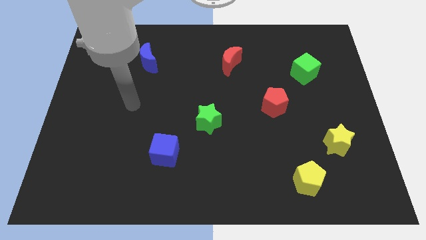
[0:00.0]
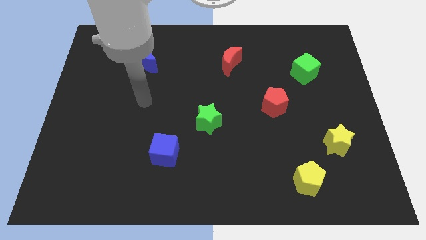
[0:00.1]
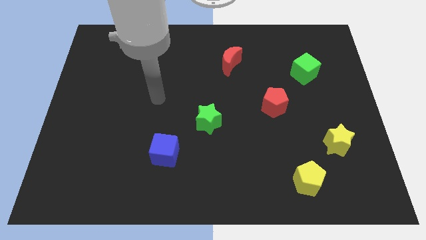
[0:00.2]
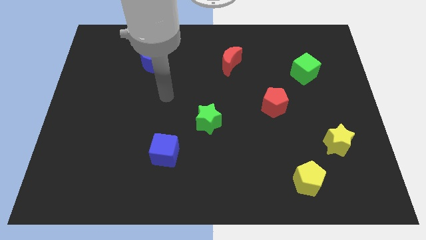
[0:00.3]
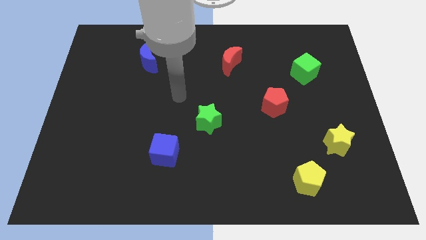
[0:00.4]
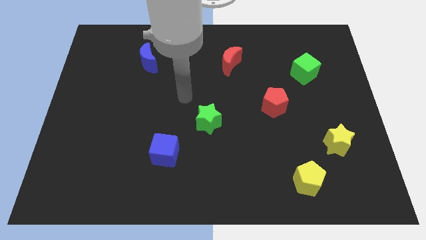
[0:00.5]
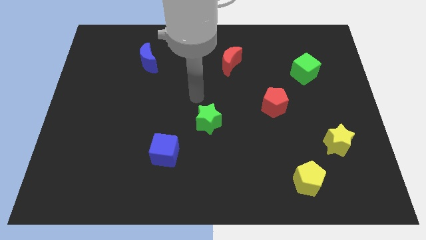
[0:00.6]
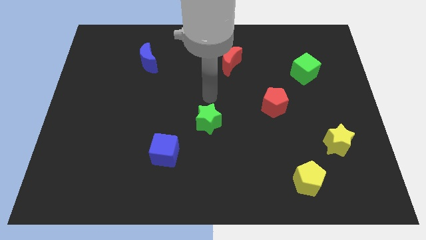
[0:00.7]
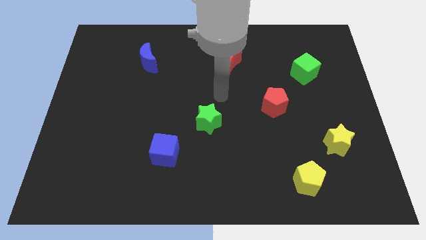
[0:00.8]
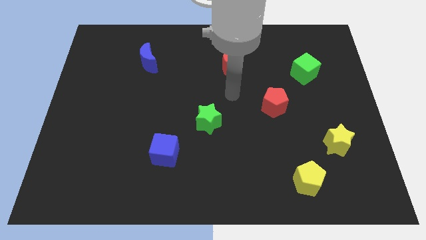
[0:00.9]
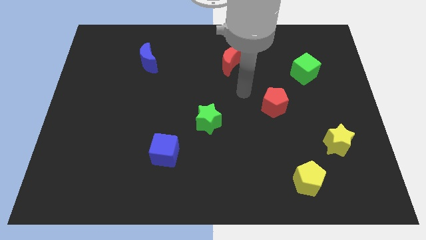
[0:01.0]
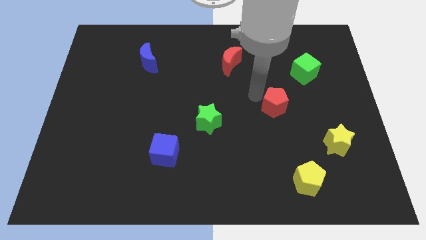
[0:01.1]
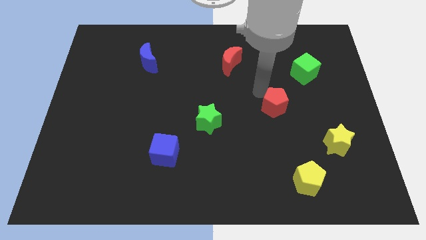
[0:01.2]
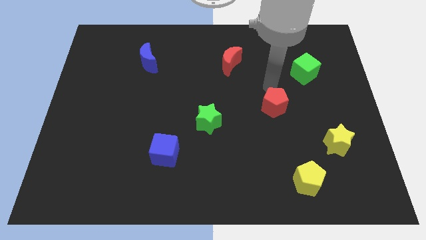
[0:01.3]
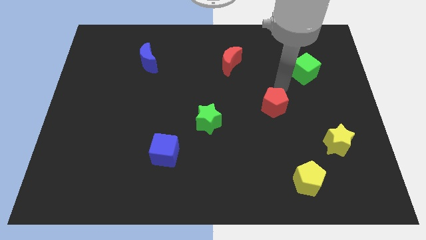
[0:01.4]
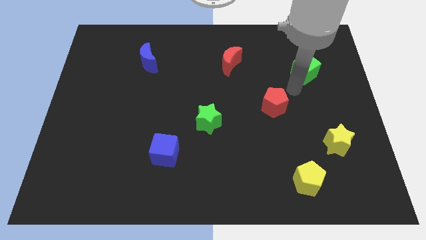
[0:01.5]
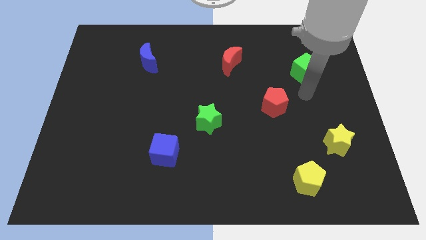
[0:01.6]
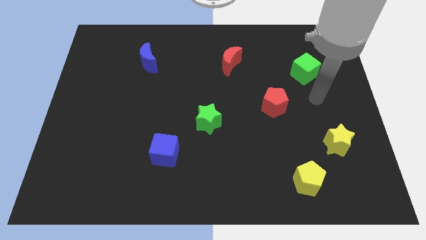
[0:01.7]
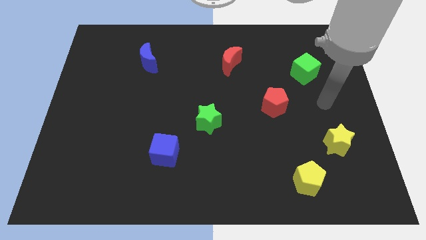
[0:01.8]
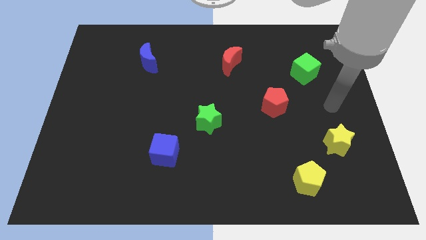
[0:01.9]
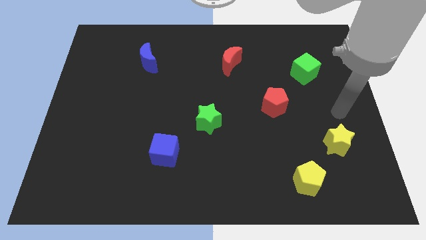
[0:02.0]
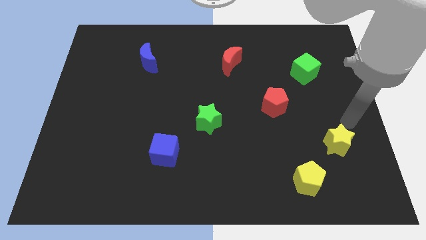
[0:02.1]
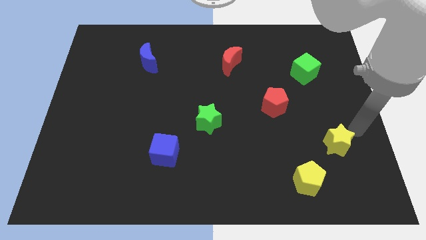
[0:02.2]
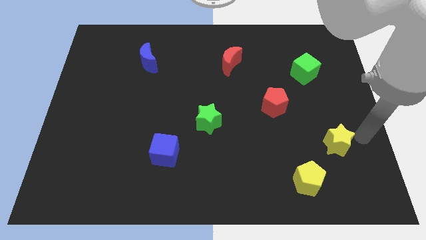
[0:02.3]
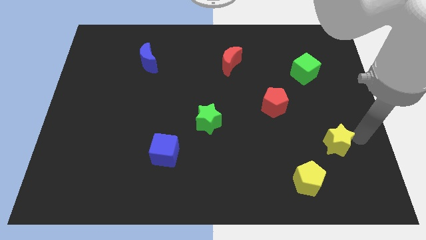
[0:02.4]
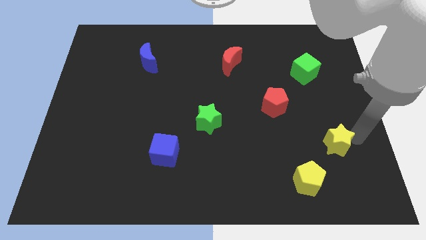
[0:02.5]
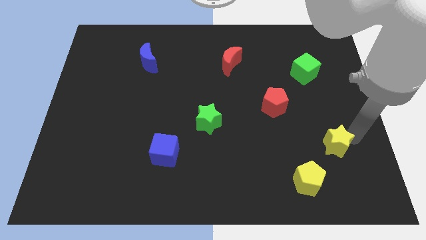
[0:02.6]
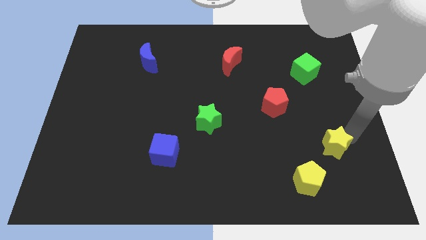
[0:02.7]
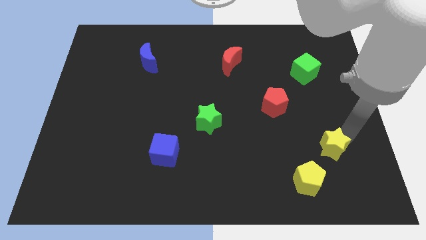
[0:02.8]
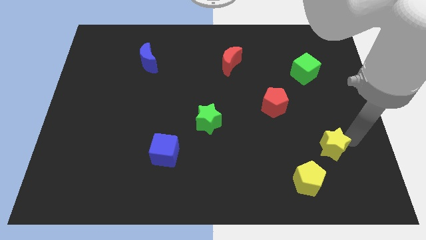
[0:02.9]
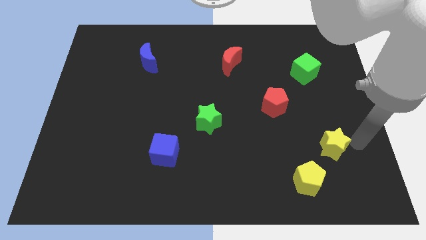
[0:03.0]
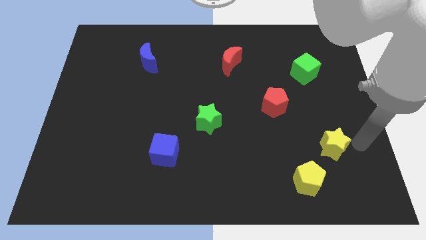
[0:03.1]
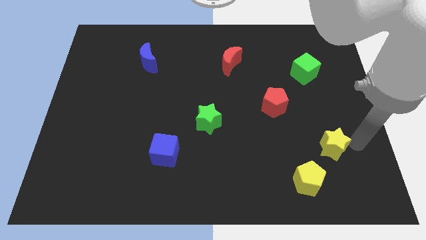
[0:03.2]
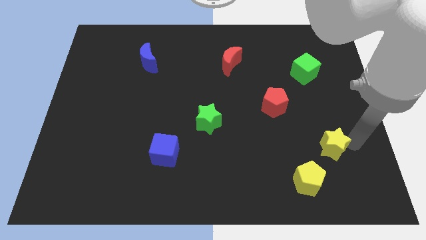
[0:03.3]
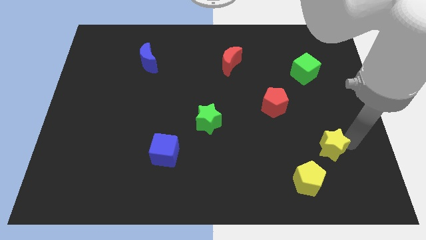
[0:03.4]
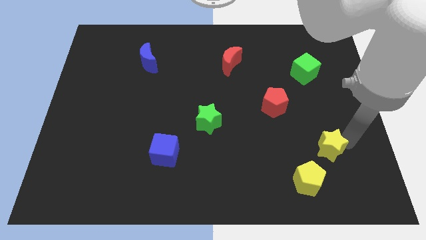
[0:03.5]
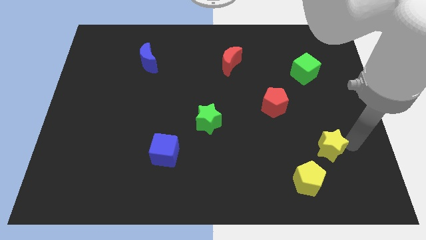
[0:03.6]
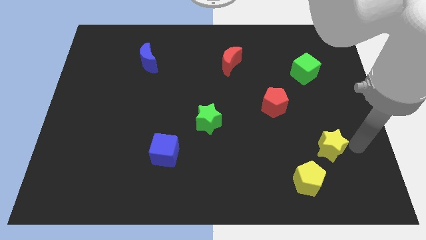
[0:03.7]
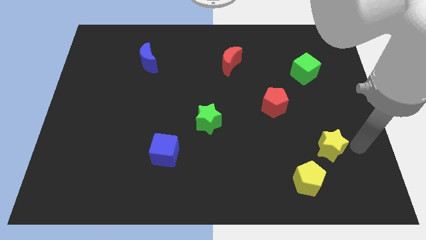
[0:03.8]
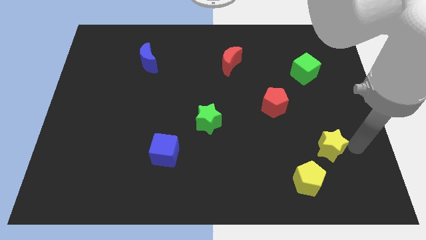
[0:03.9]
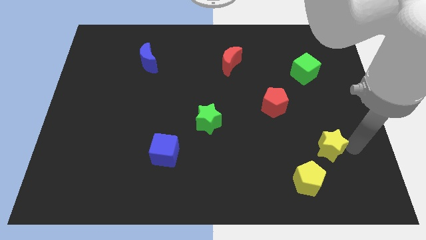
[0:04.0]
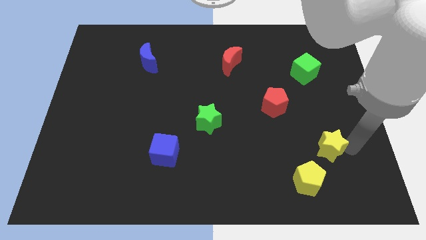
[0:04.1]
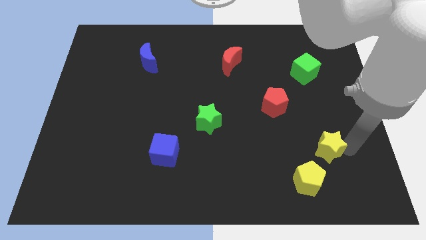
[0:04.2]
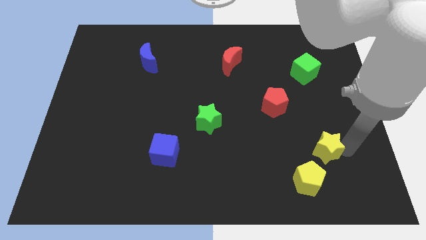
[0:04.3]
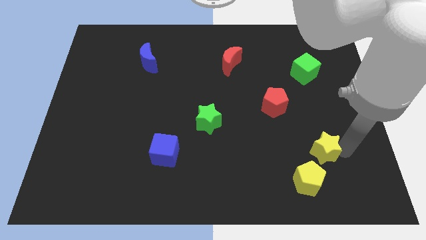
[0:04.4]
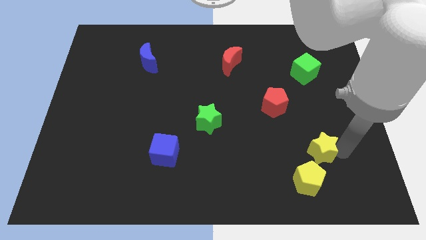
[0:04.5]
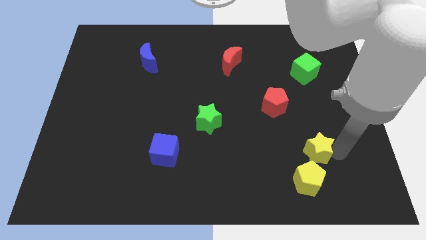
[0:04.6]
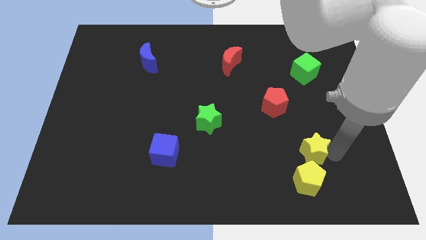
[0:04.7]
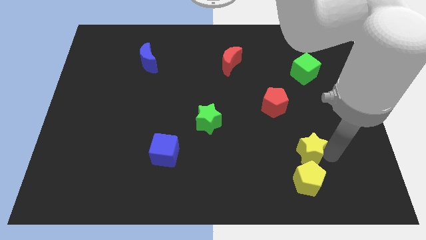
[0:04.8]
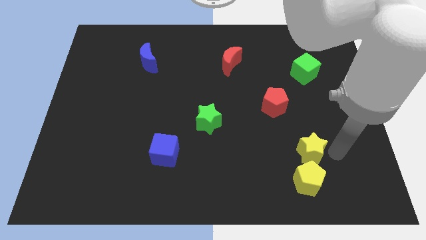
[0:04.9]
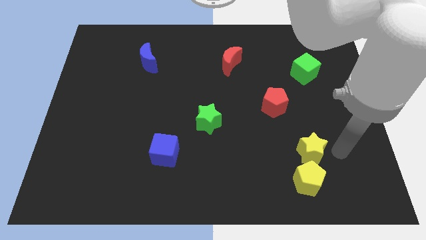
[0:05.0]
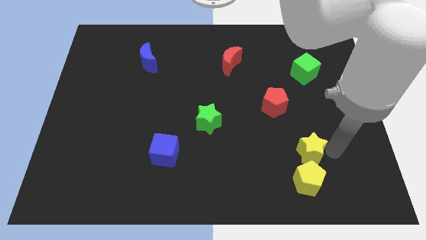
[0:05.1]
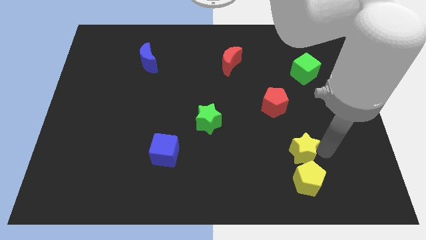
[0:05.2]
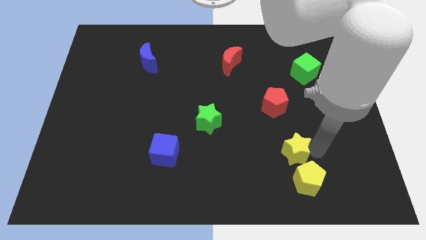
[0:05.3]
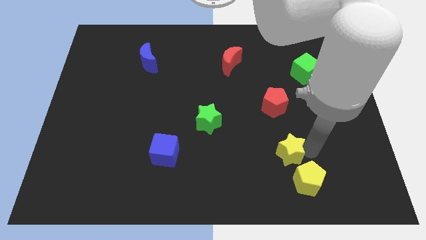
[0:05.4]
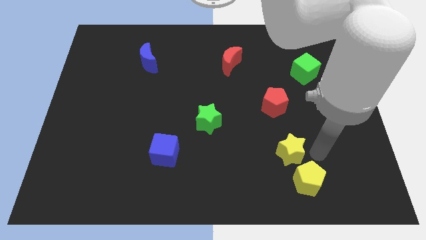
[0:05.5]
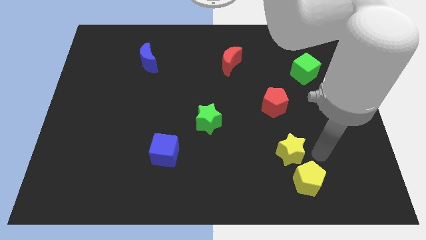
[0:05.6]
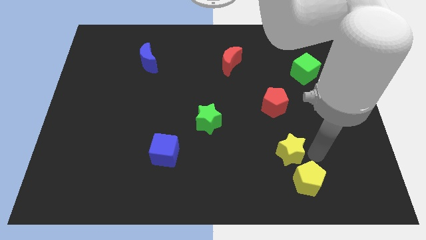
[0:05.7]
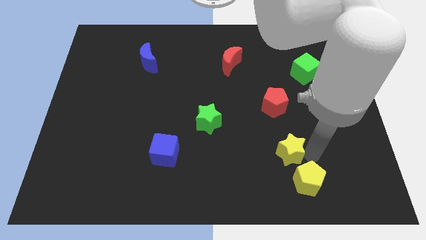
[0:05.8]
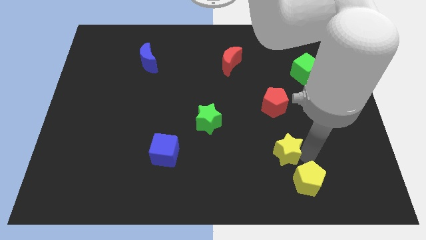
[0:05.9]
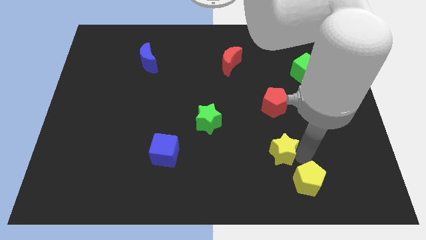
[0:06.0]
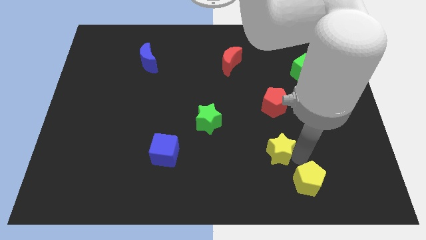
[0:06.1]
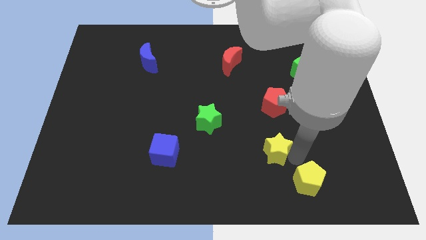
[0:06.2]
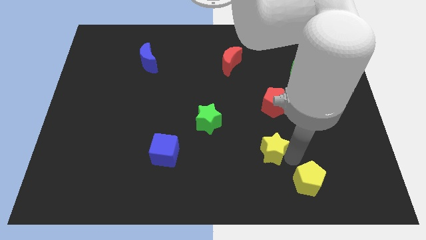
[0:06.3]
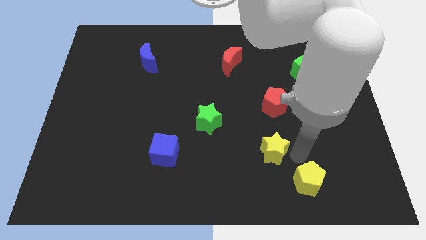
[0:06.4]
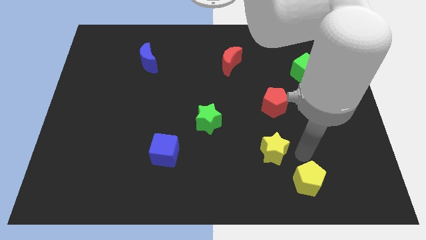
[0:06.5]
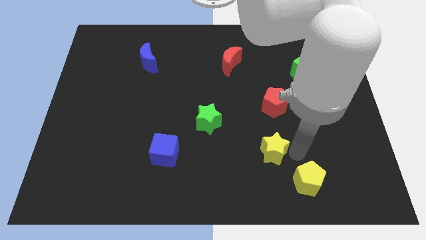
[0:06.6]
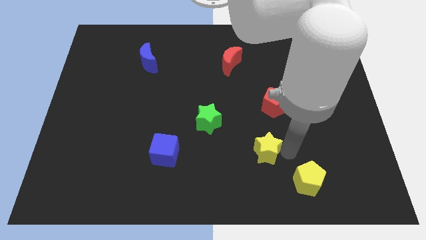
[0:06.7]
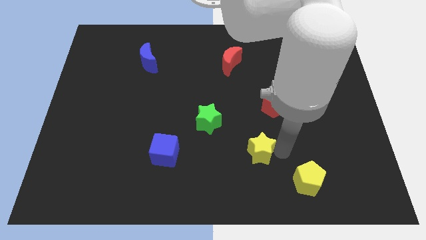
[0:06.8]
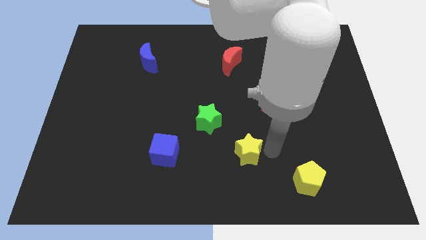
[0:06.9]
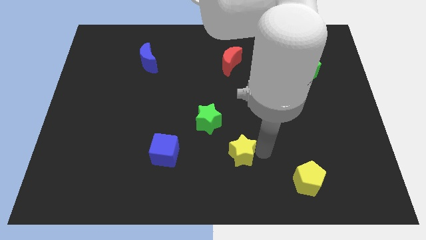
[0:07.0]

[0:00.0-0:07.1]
push the yellow star left

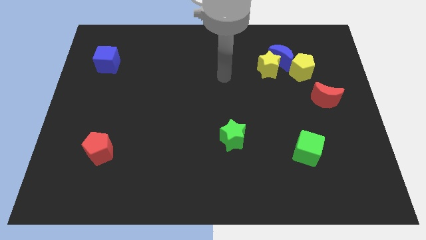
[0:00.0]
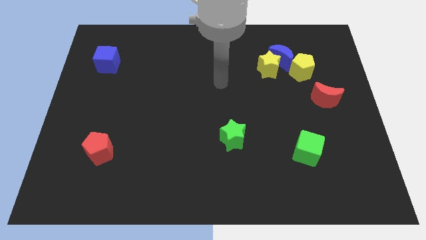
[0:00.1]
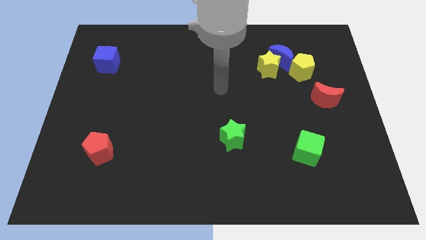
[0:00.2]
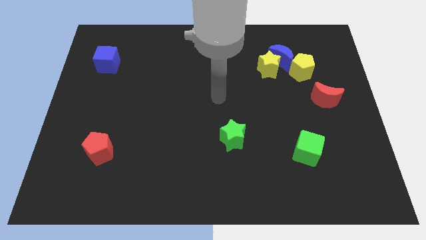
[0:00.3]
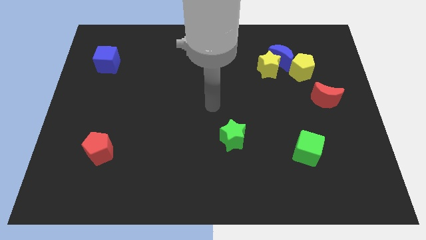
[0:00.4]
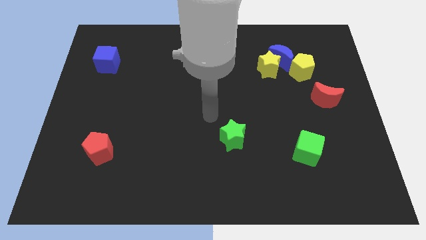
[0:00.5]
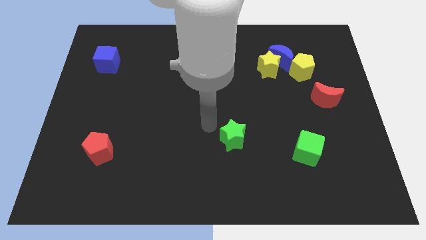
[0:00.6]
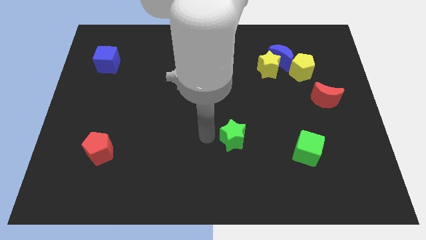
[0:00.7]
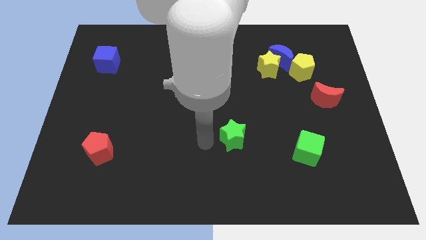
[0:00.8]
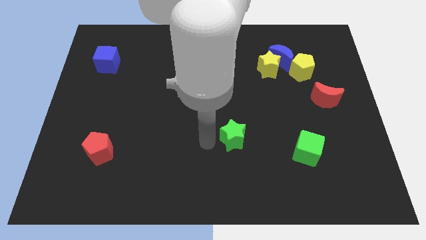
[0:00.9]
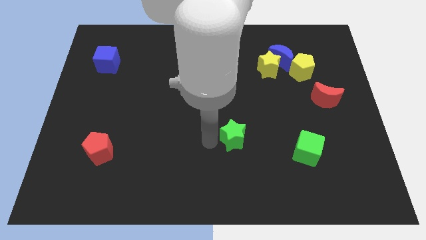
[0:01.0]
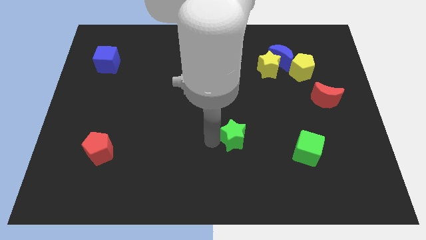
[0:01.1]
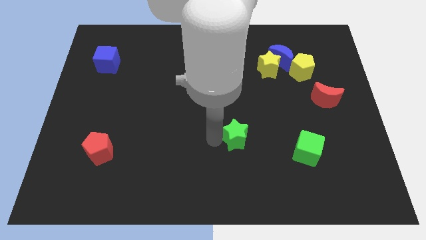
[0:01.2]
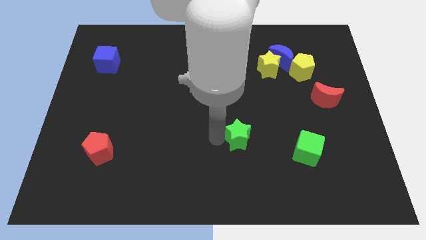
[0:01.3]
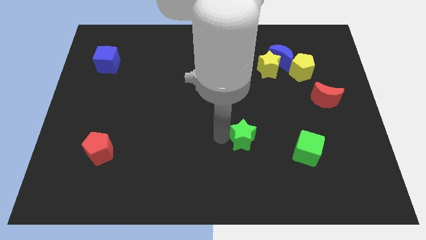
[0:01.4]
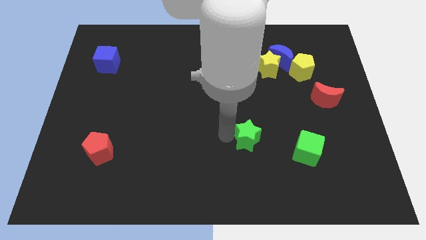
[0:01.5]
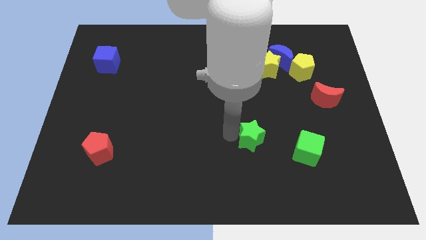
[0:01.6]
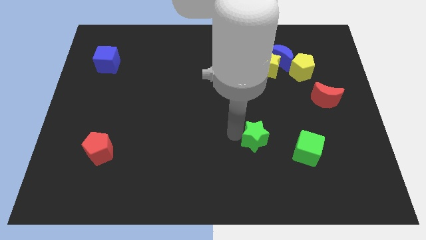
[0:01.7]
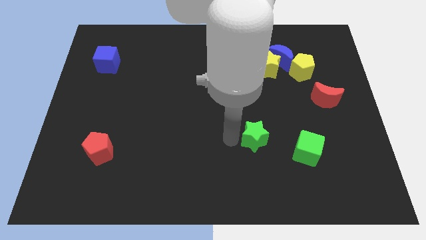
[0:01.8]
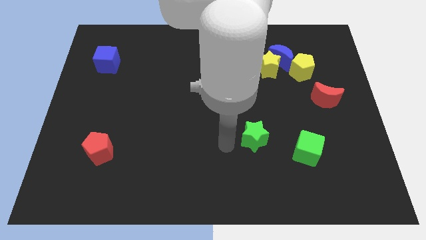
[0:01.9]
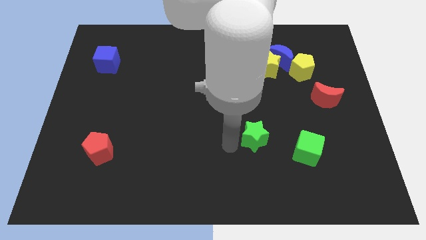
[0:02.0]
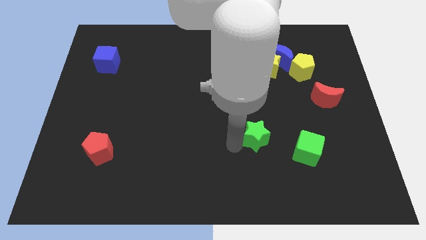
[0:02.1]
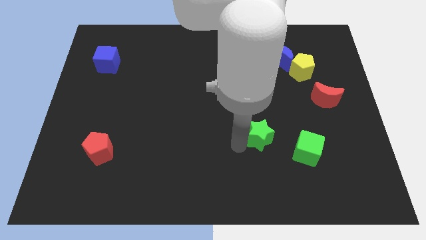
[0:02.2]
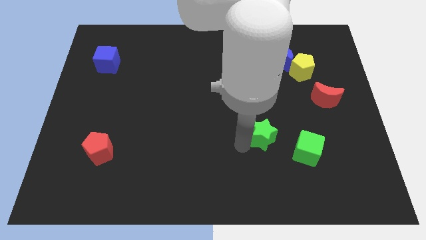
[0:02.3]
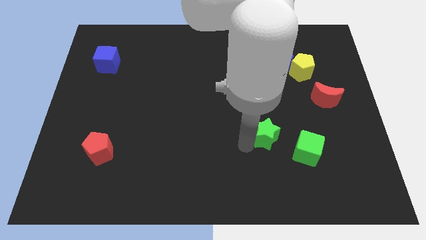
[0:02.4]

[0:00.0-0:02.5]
slightly move the green star to the right
